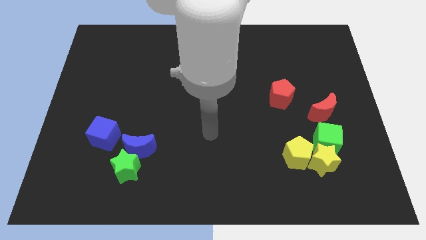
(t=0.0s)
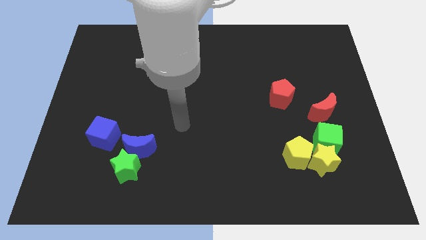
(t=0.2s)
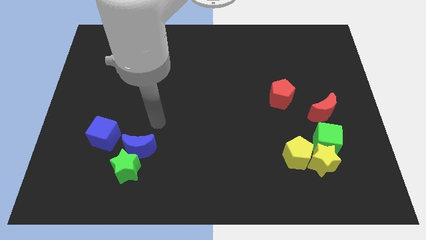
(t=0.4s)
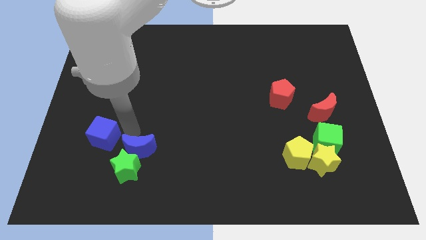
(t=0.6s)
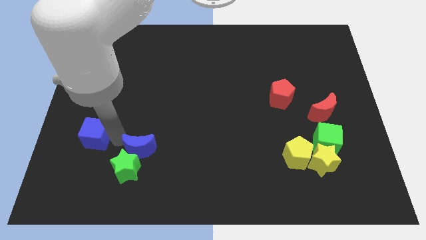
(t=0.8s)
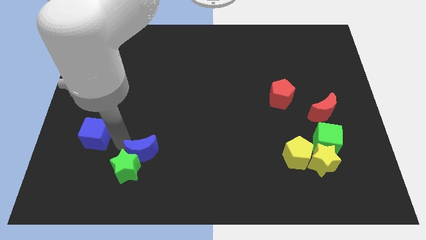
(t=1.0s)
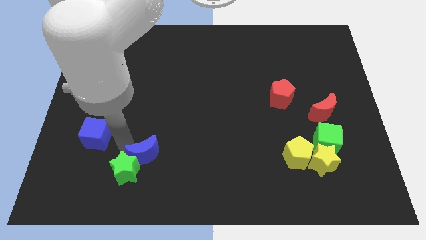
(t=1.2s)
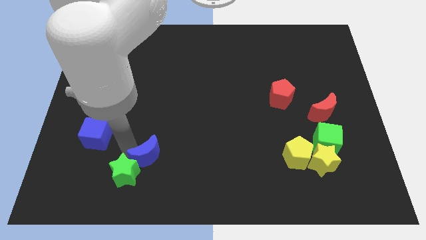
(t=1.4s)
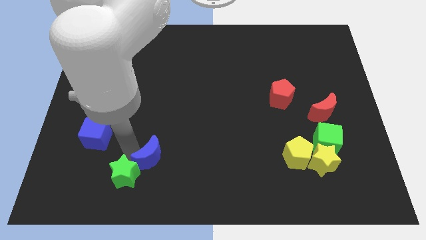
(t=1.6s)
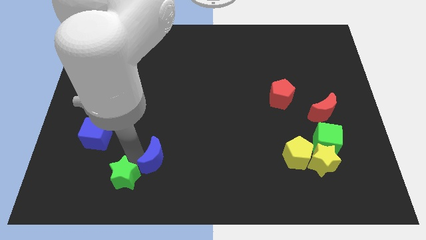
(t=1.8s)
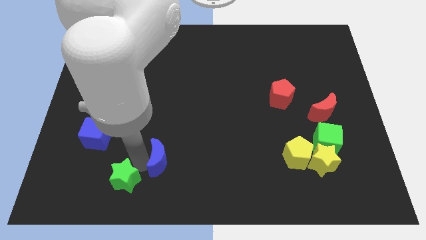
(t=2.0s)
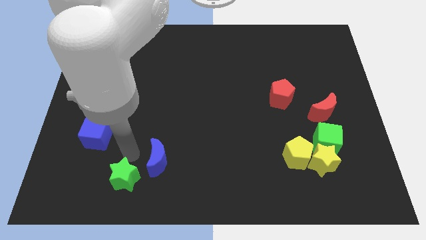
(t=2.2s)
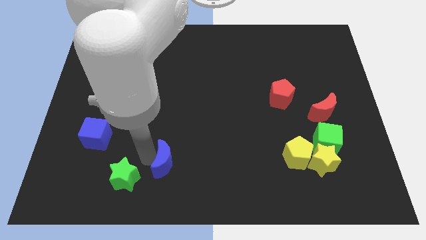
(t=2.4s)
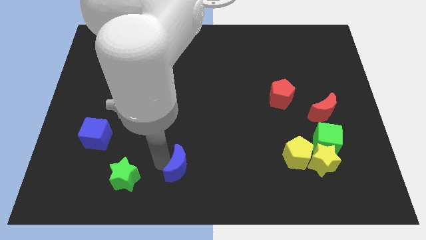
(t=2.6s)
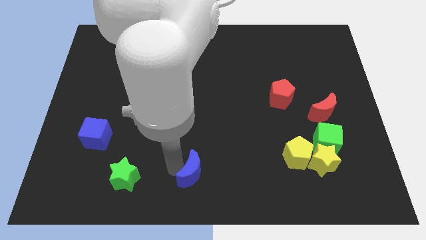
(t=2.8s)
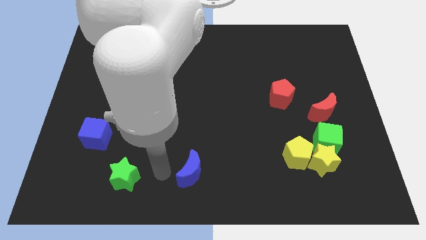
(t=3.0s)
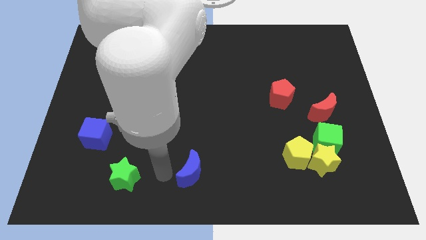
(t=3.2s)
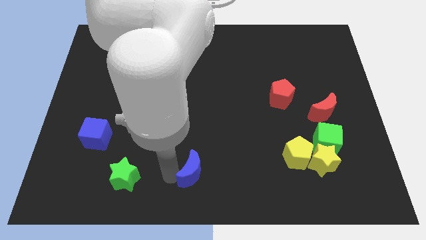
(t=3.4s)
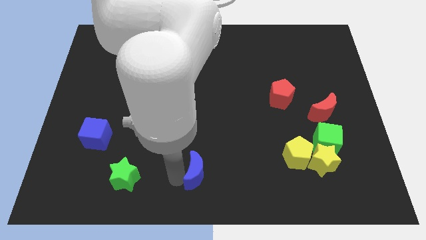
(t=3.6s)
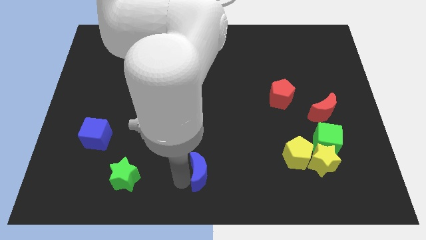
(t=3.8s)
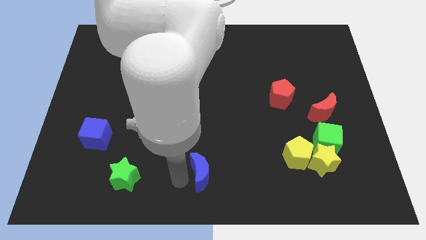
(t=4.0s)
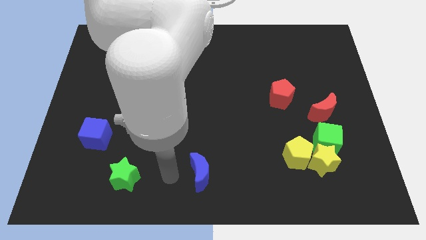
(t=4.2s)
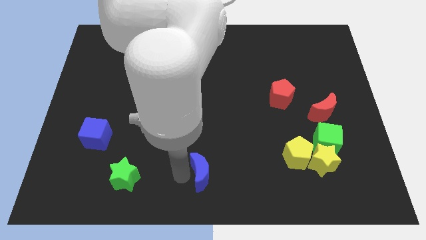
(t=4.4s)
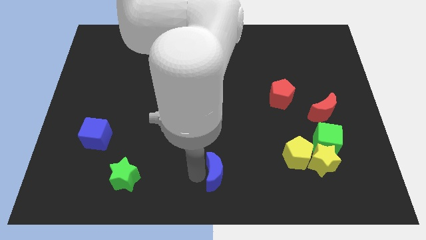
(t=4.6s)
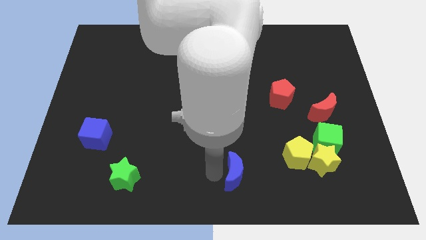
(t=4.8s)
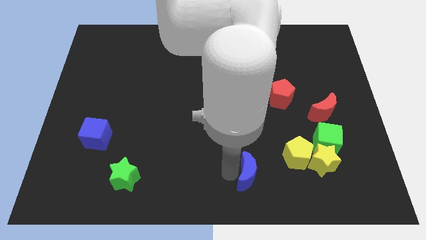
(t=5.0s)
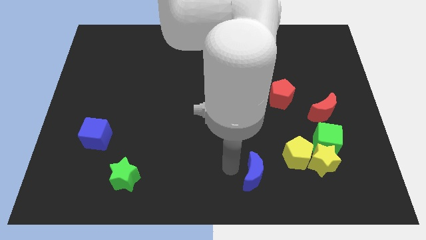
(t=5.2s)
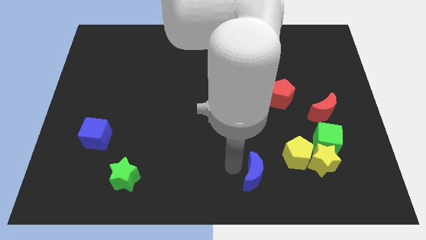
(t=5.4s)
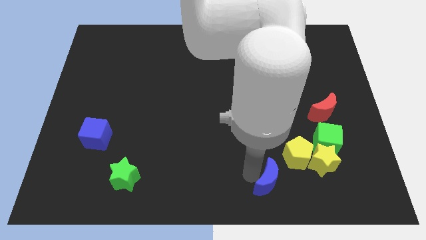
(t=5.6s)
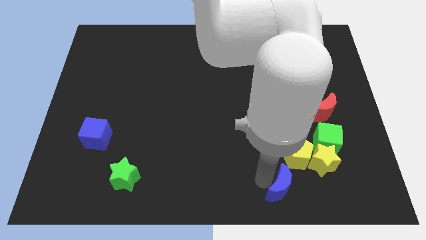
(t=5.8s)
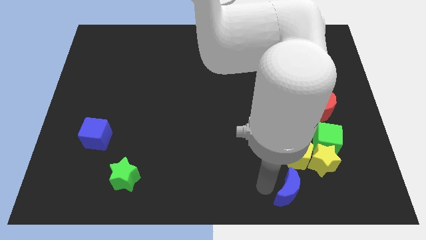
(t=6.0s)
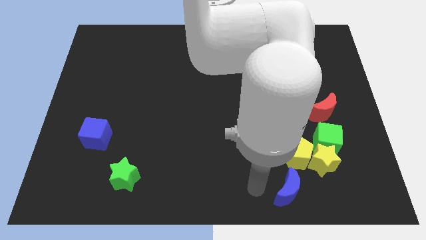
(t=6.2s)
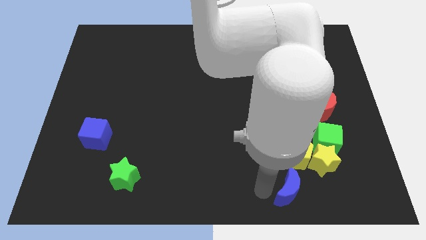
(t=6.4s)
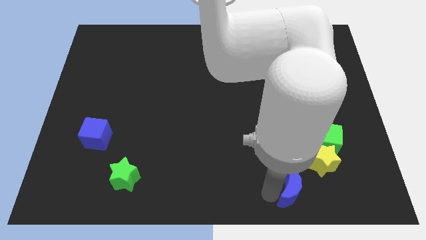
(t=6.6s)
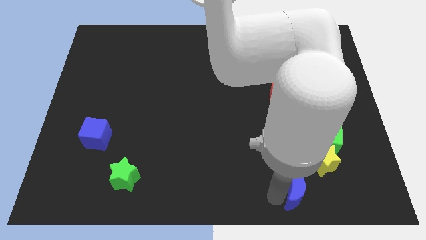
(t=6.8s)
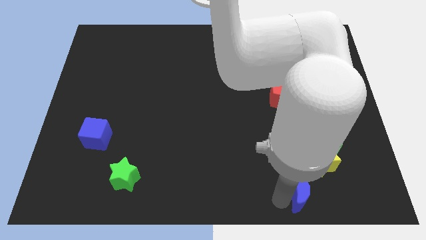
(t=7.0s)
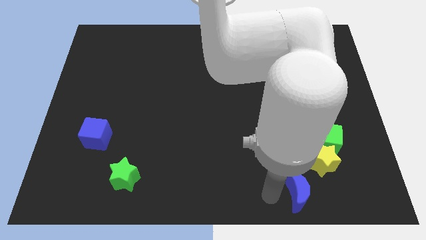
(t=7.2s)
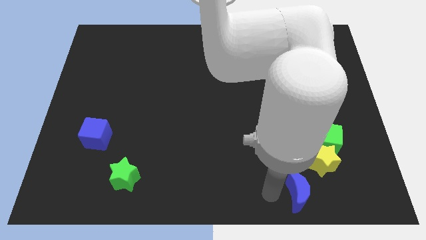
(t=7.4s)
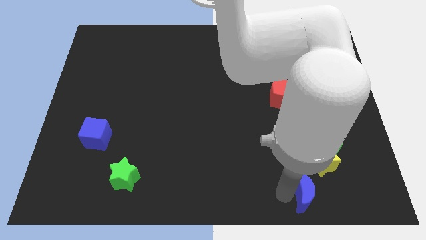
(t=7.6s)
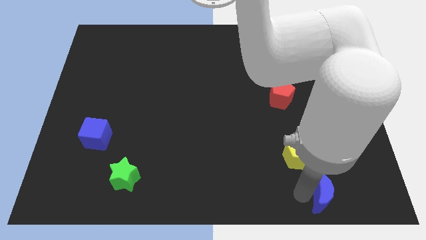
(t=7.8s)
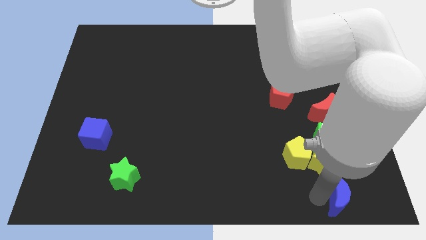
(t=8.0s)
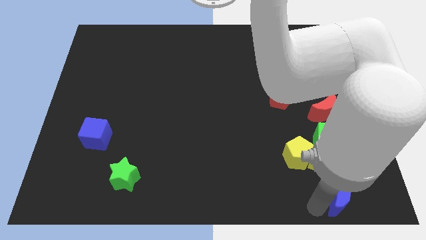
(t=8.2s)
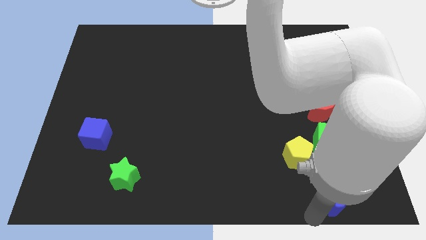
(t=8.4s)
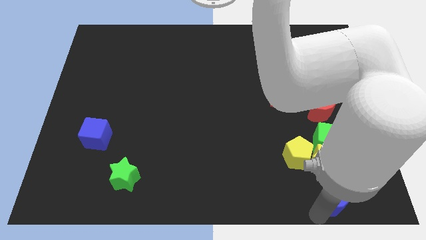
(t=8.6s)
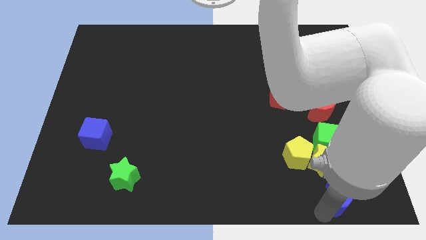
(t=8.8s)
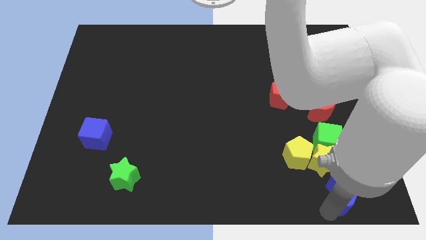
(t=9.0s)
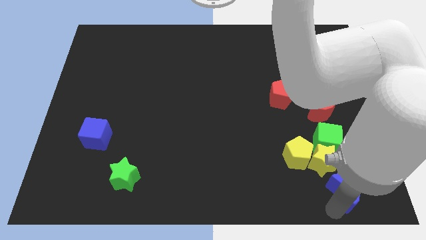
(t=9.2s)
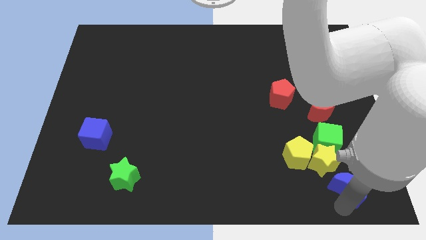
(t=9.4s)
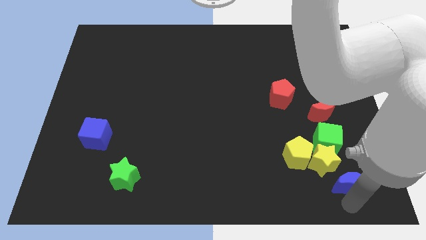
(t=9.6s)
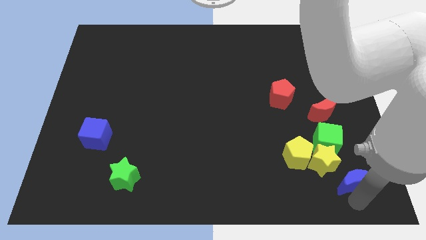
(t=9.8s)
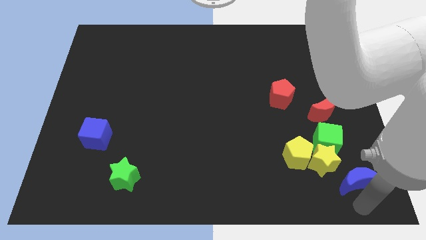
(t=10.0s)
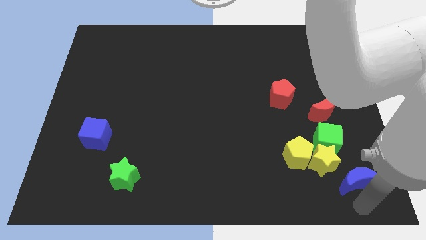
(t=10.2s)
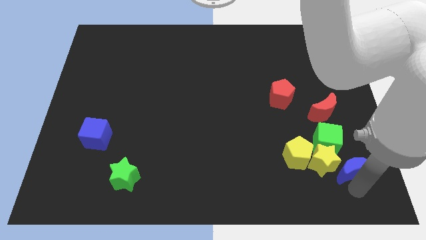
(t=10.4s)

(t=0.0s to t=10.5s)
push the blue moon right of the yellow pentagon

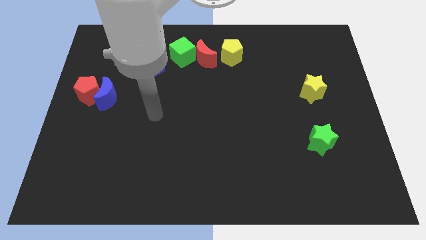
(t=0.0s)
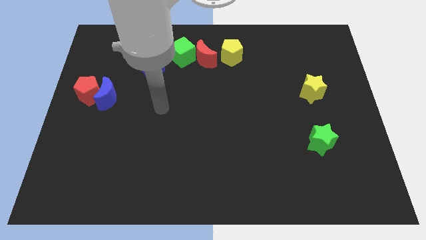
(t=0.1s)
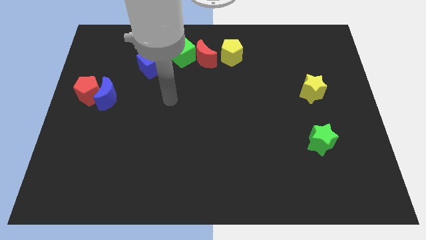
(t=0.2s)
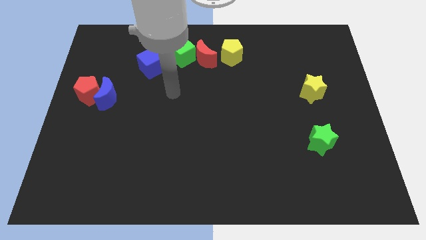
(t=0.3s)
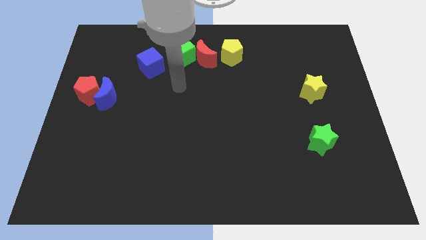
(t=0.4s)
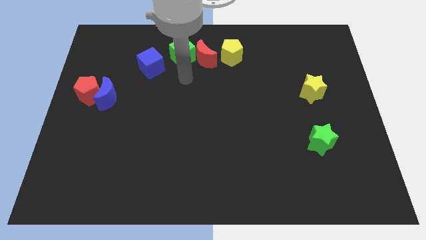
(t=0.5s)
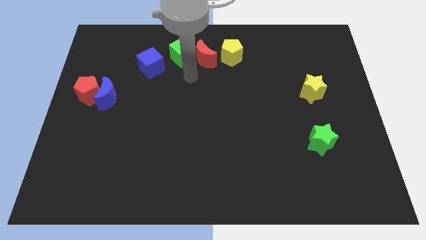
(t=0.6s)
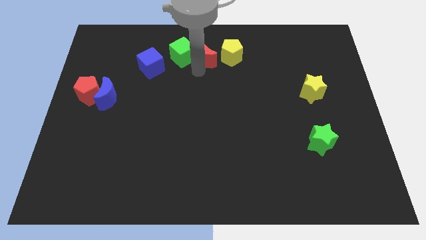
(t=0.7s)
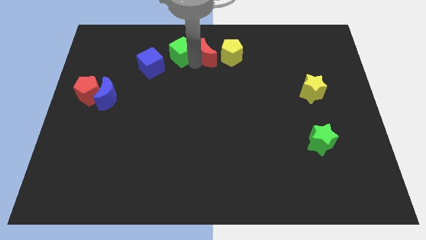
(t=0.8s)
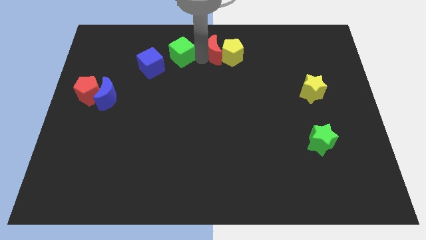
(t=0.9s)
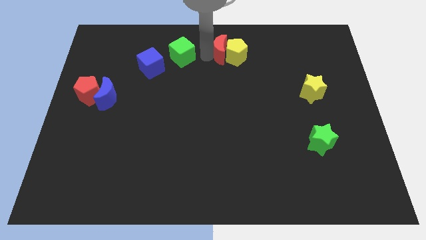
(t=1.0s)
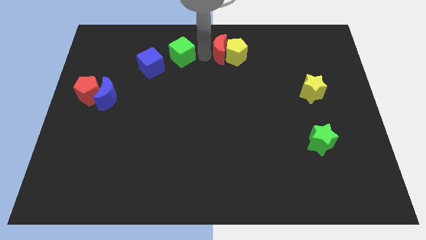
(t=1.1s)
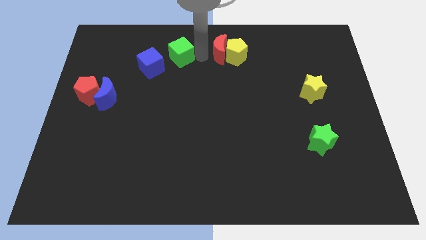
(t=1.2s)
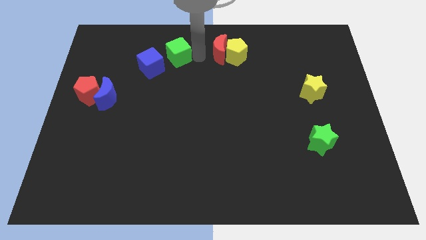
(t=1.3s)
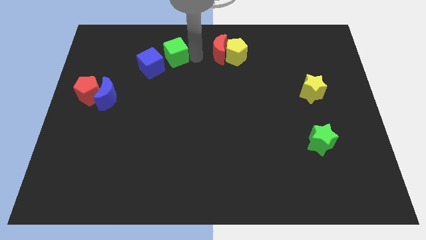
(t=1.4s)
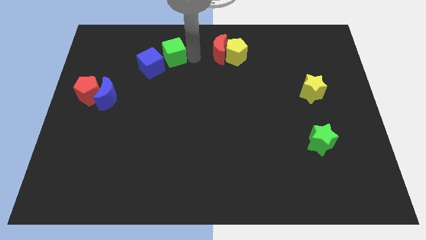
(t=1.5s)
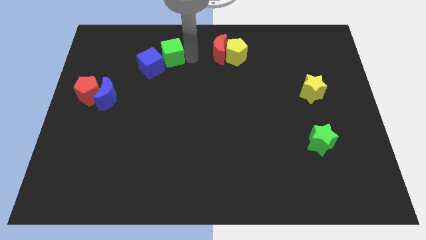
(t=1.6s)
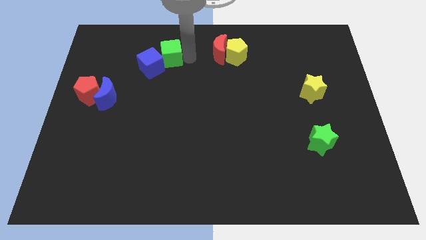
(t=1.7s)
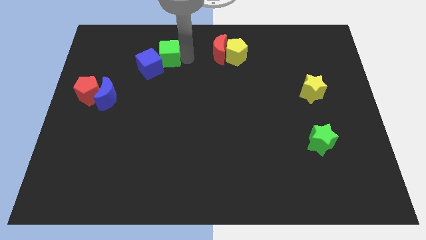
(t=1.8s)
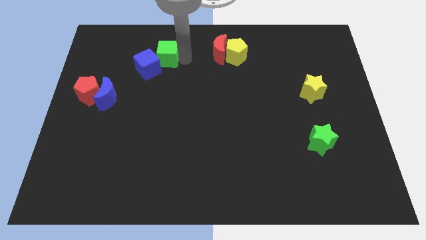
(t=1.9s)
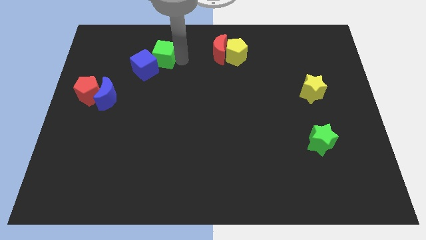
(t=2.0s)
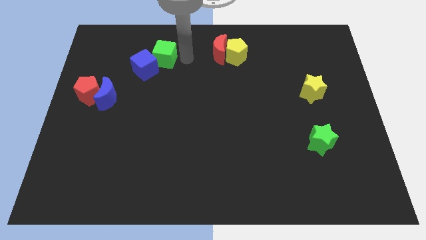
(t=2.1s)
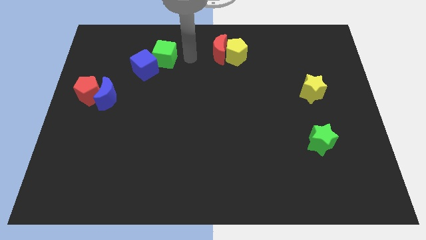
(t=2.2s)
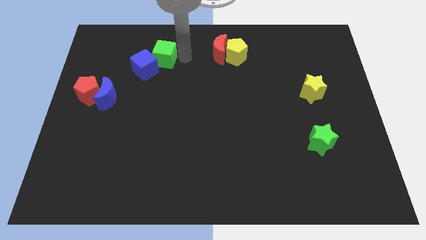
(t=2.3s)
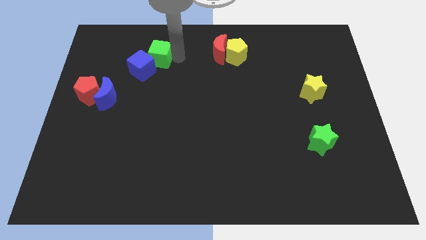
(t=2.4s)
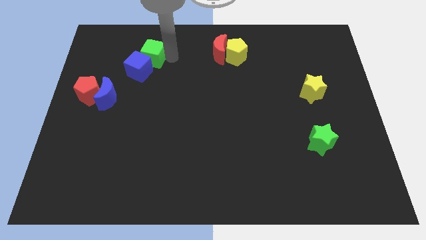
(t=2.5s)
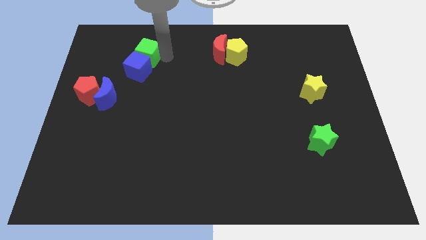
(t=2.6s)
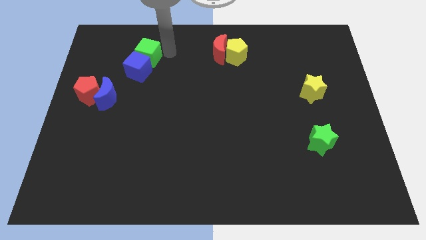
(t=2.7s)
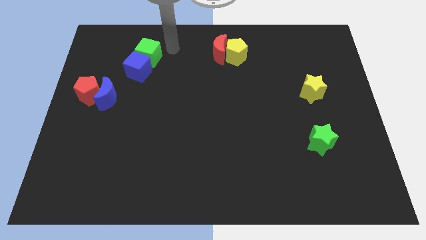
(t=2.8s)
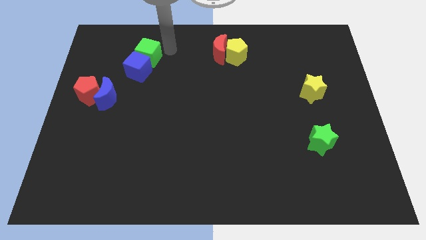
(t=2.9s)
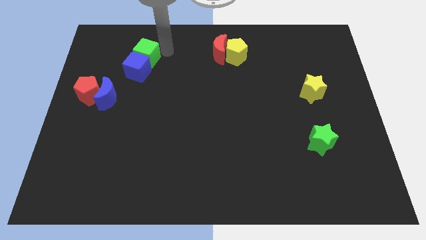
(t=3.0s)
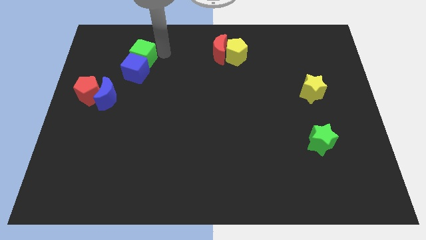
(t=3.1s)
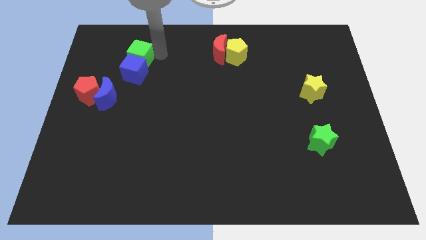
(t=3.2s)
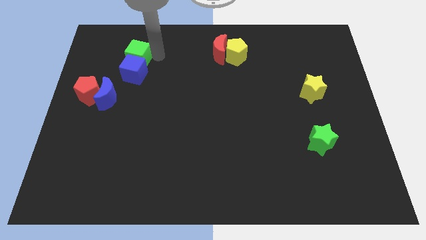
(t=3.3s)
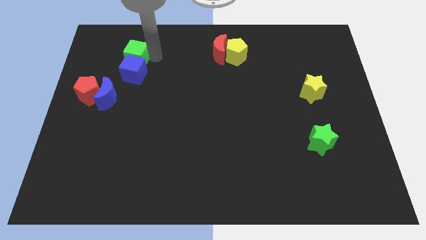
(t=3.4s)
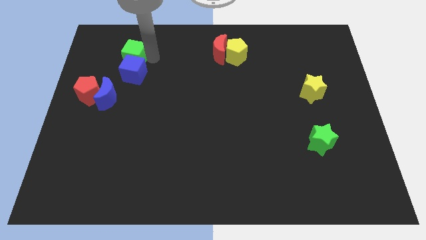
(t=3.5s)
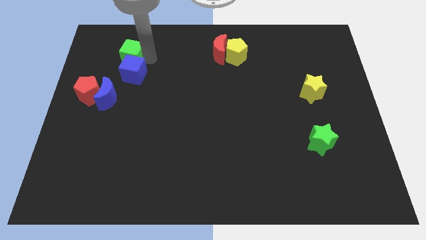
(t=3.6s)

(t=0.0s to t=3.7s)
slide the green cube above the blue moon
